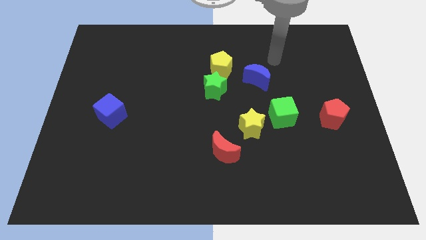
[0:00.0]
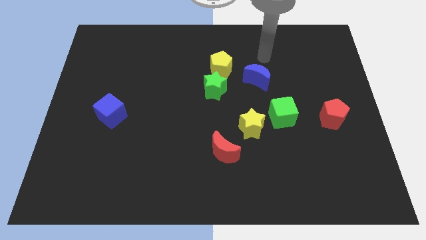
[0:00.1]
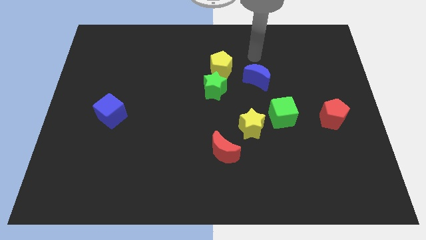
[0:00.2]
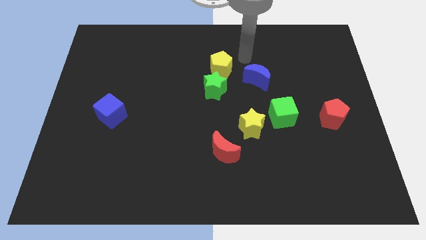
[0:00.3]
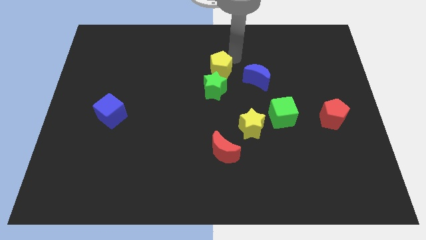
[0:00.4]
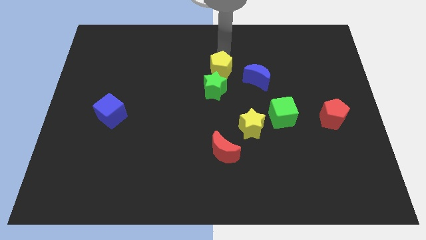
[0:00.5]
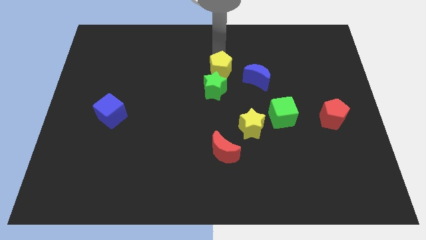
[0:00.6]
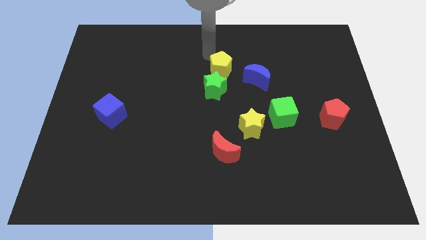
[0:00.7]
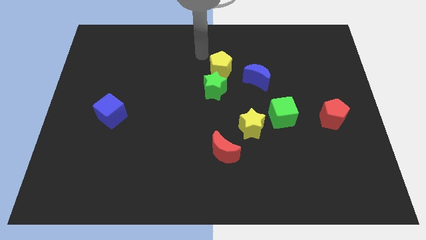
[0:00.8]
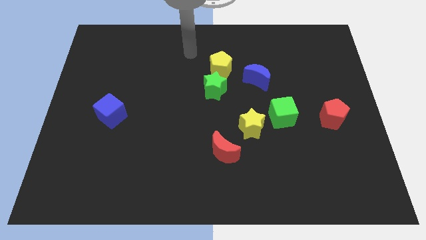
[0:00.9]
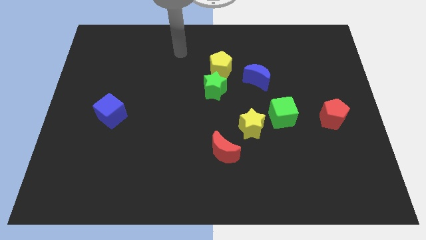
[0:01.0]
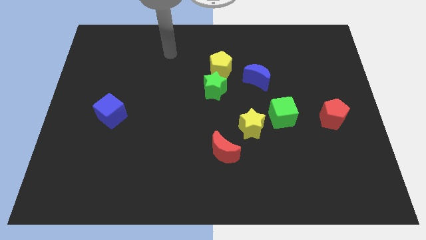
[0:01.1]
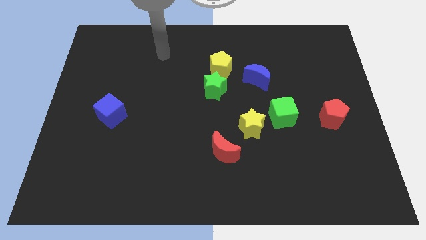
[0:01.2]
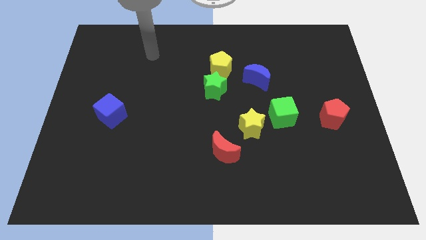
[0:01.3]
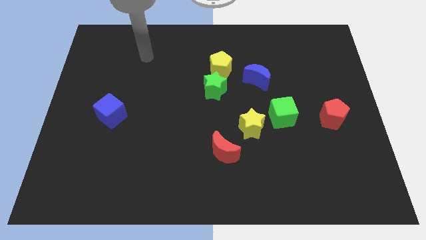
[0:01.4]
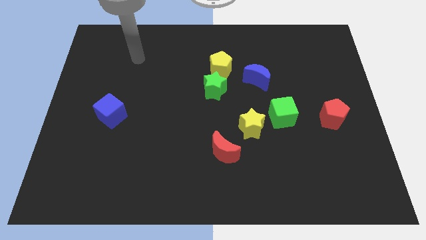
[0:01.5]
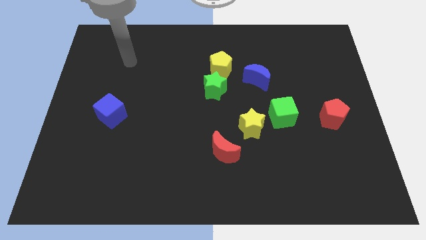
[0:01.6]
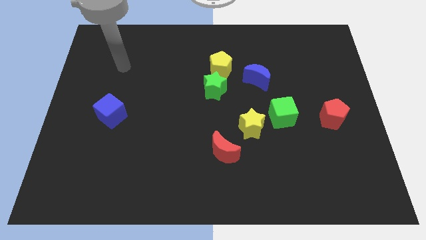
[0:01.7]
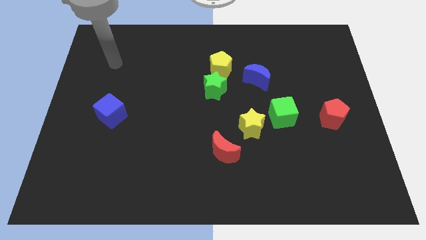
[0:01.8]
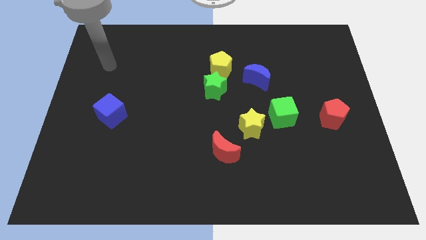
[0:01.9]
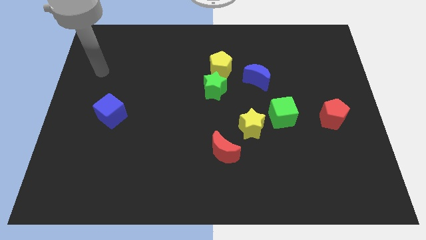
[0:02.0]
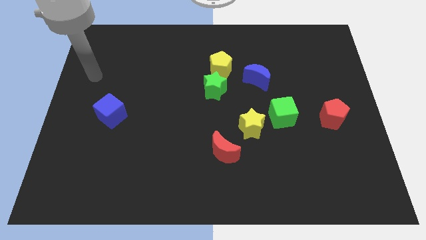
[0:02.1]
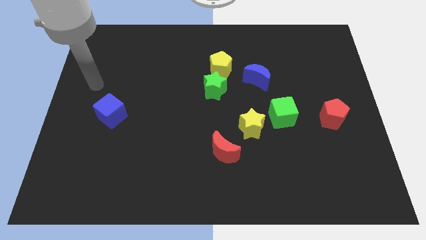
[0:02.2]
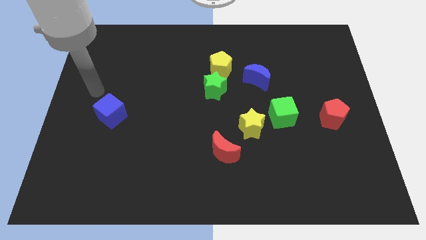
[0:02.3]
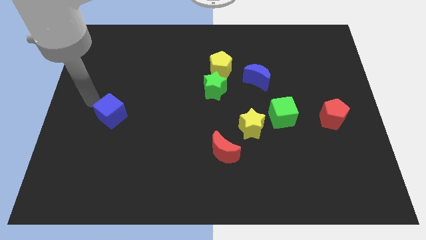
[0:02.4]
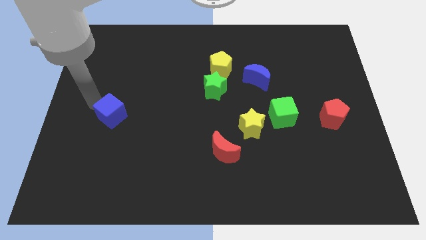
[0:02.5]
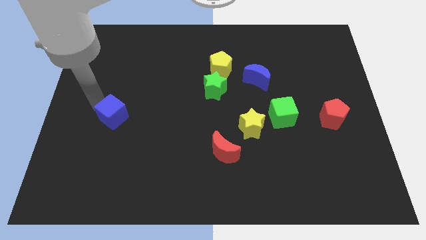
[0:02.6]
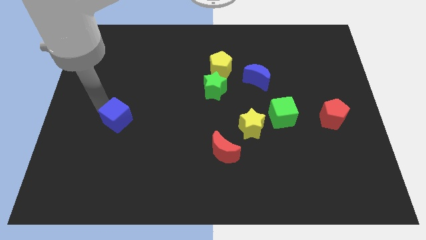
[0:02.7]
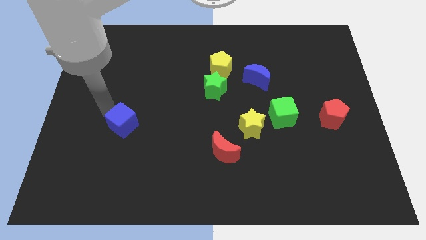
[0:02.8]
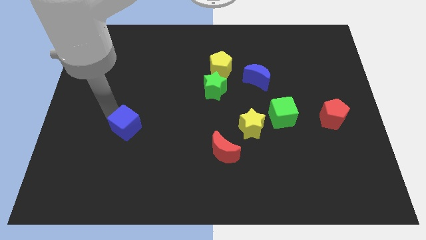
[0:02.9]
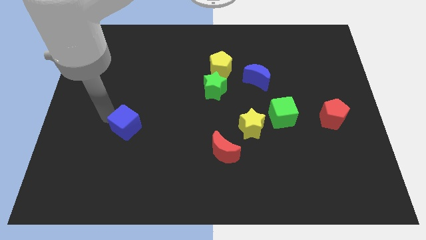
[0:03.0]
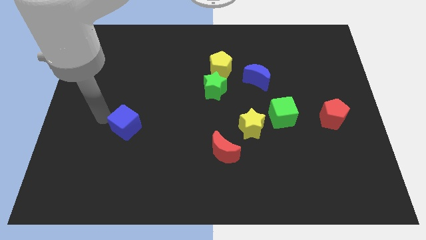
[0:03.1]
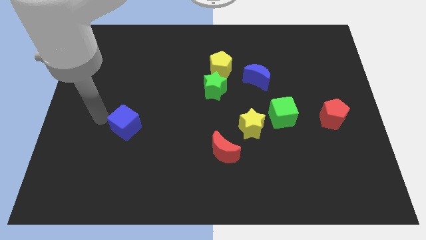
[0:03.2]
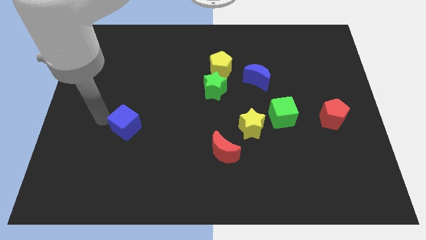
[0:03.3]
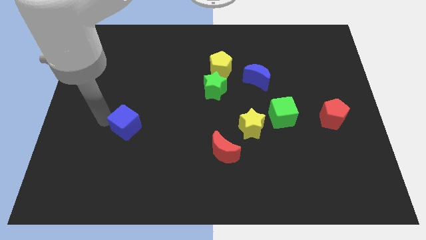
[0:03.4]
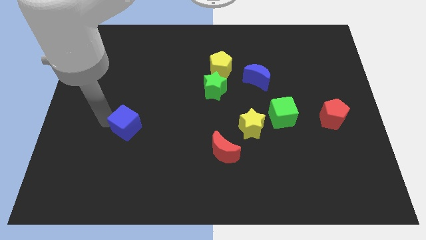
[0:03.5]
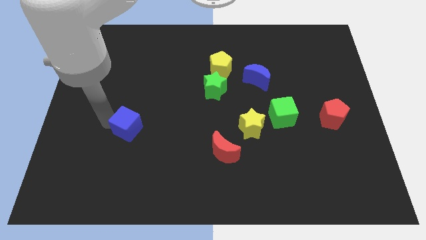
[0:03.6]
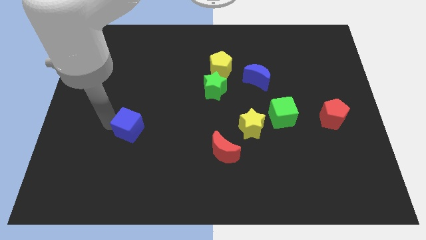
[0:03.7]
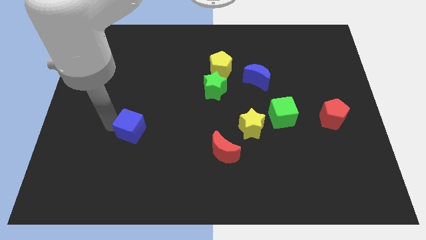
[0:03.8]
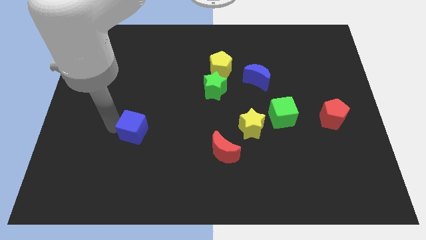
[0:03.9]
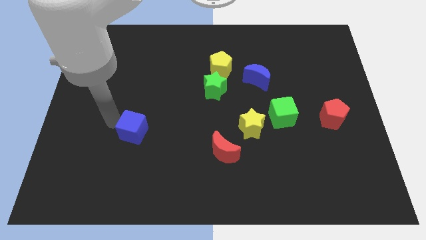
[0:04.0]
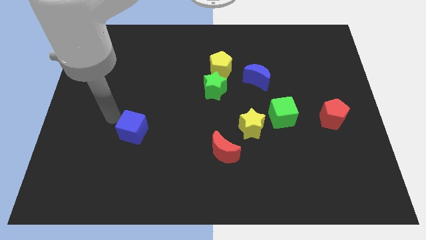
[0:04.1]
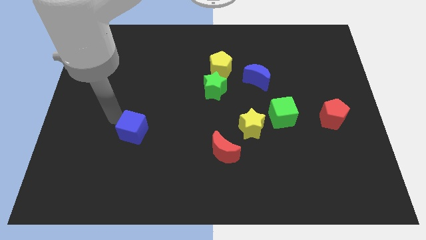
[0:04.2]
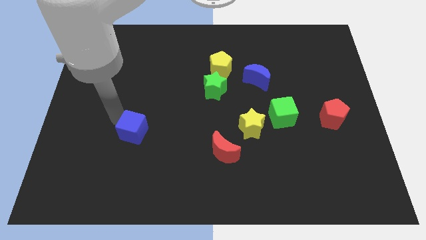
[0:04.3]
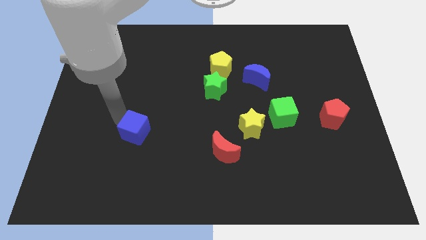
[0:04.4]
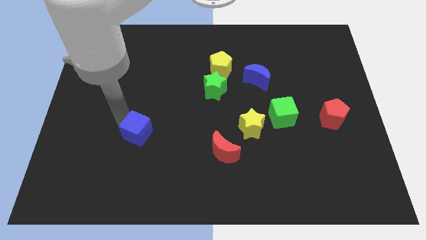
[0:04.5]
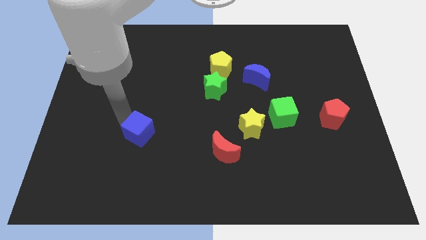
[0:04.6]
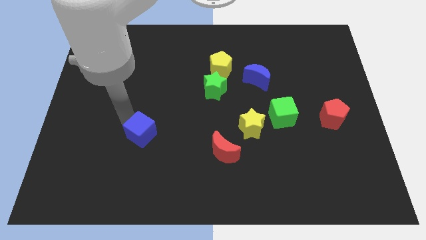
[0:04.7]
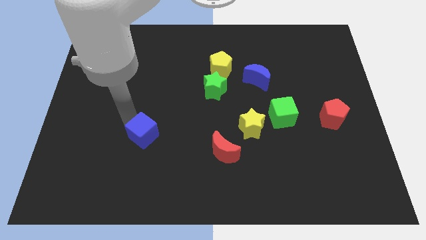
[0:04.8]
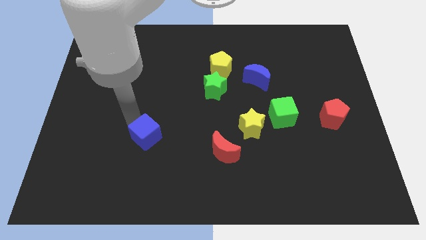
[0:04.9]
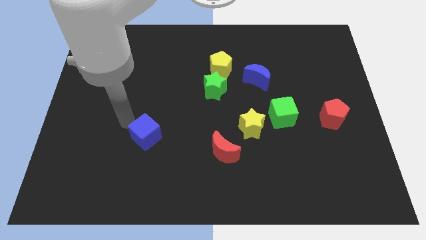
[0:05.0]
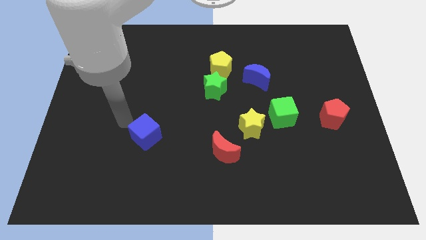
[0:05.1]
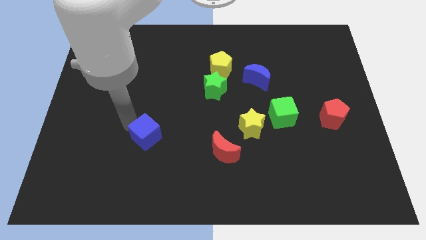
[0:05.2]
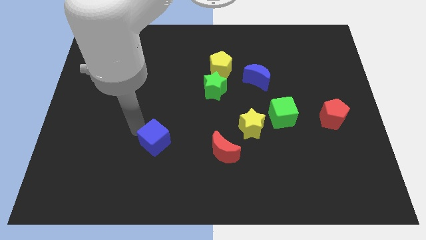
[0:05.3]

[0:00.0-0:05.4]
put the blue cube to the left side of the red moon

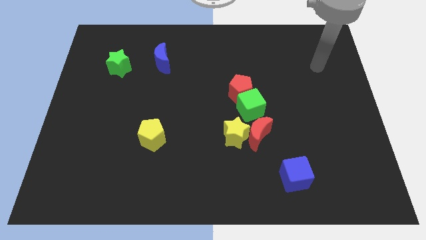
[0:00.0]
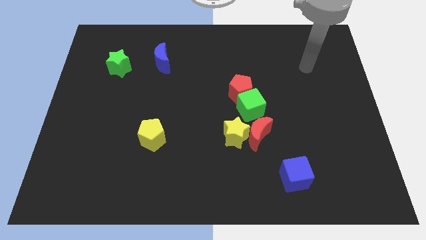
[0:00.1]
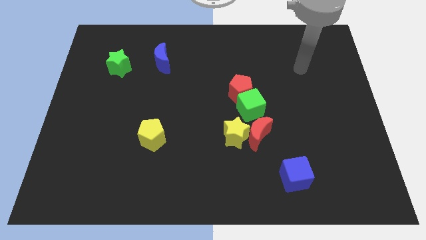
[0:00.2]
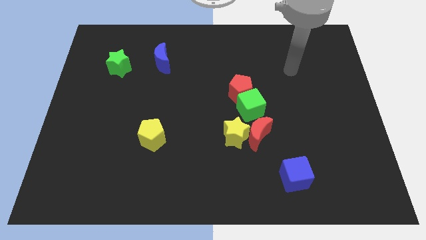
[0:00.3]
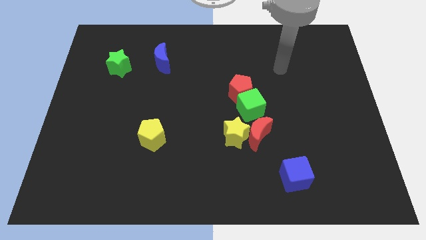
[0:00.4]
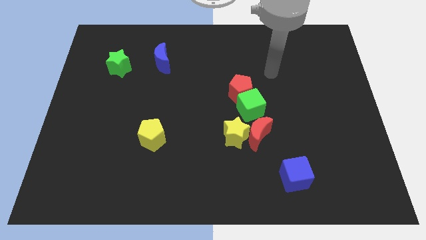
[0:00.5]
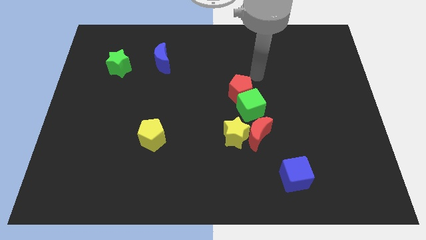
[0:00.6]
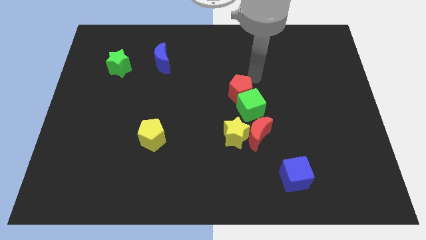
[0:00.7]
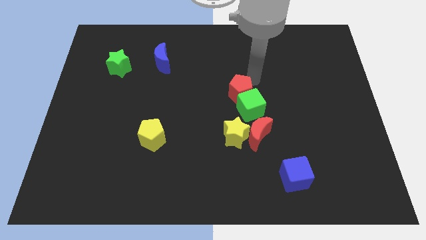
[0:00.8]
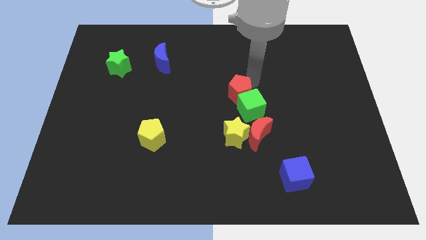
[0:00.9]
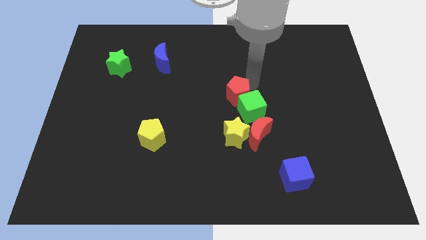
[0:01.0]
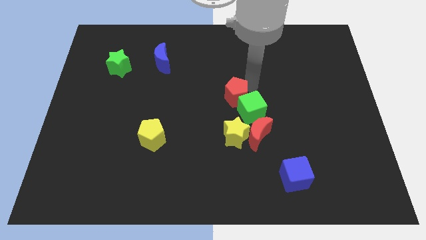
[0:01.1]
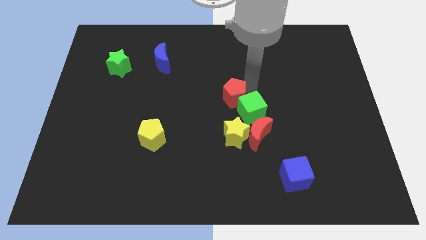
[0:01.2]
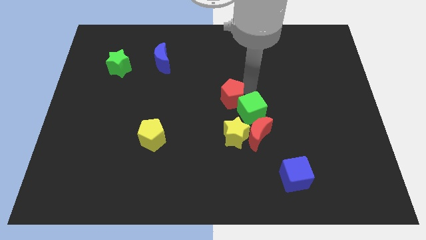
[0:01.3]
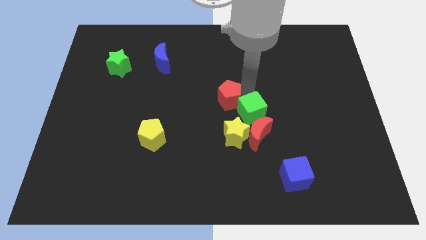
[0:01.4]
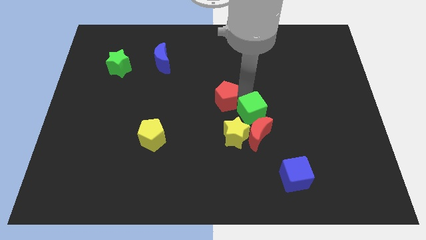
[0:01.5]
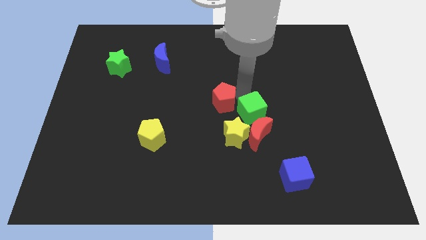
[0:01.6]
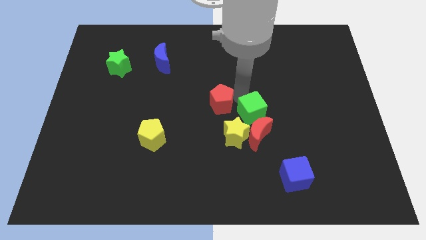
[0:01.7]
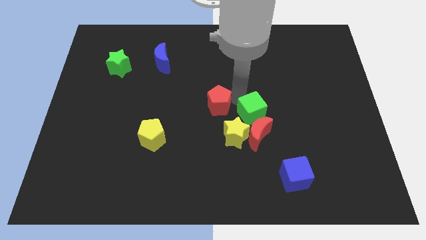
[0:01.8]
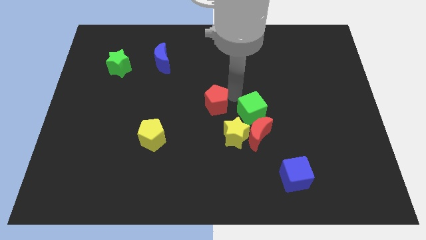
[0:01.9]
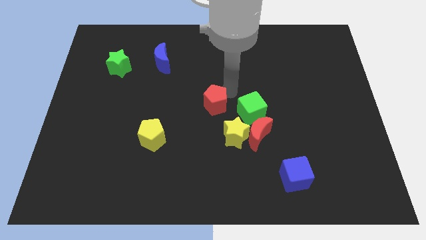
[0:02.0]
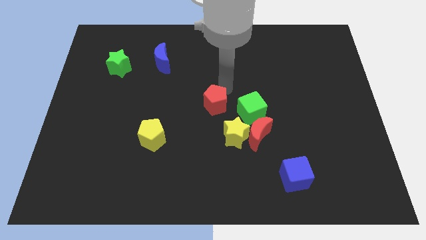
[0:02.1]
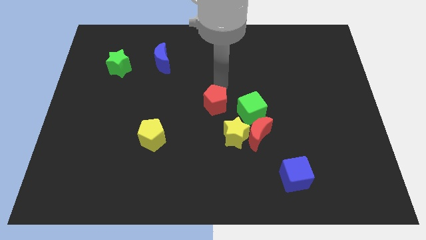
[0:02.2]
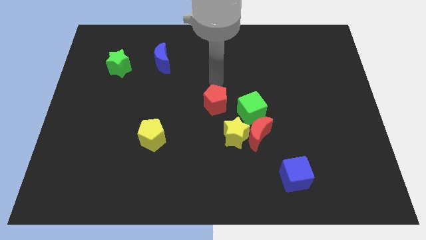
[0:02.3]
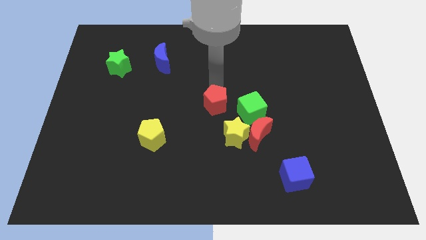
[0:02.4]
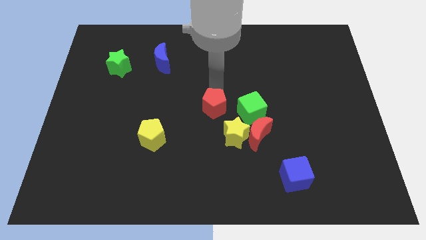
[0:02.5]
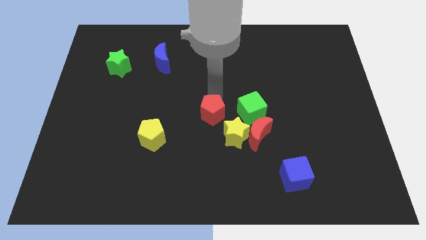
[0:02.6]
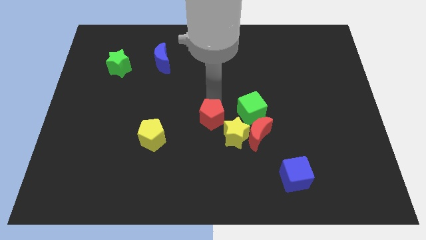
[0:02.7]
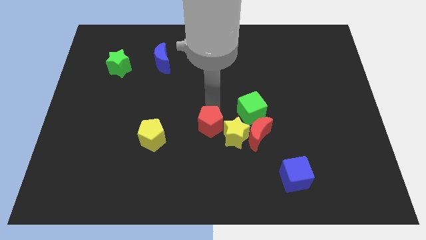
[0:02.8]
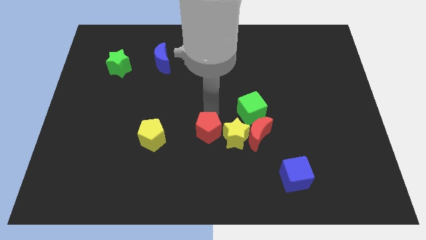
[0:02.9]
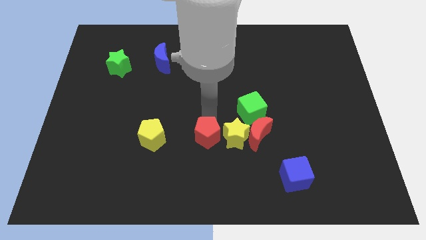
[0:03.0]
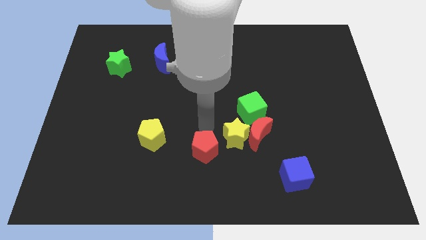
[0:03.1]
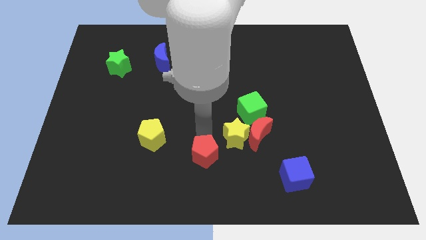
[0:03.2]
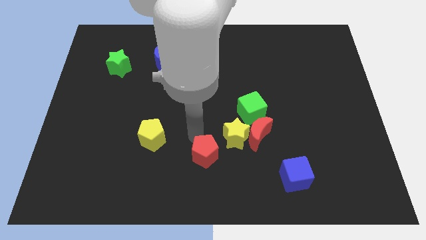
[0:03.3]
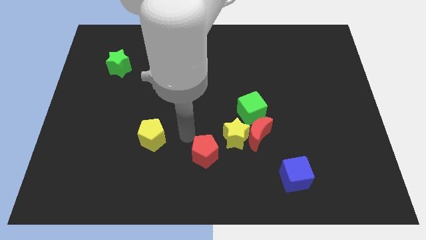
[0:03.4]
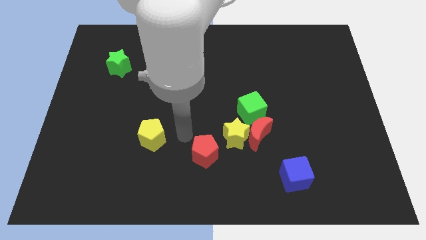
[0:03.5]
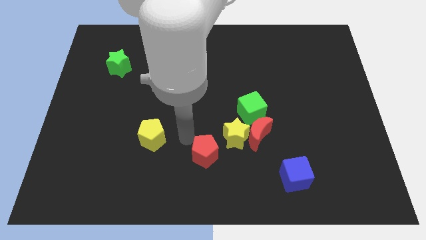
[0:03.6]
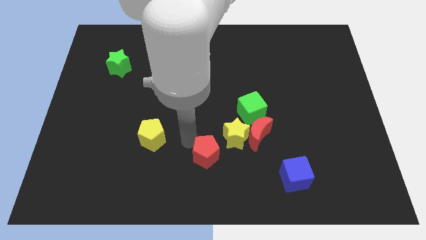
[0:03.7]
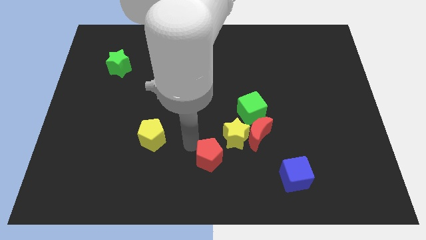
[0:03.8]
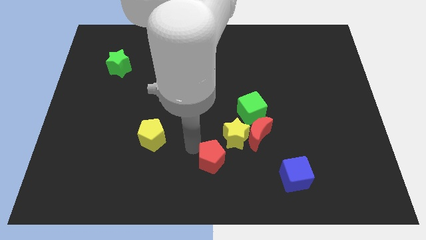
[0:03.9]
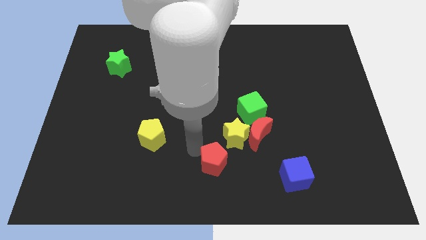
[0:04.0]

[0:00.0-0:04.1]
push the red pentagon to the bottom of the yellow star
